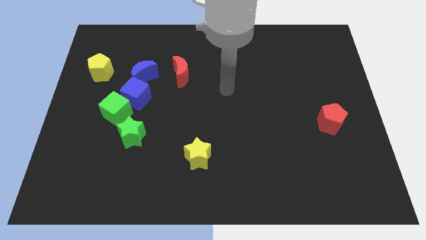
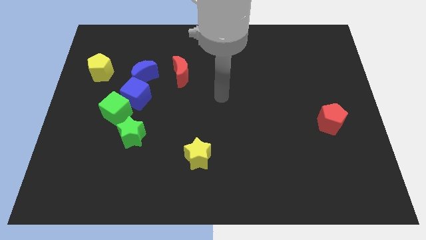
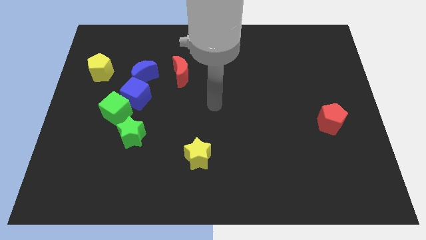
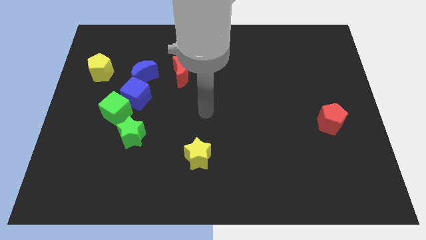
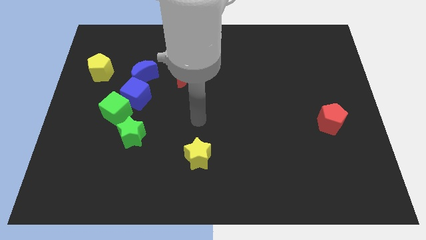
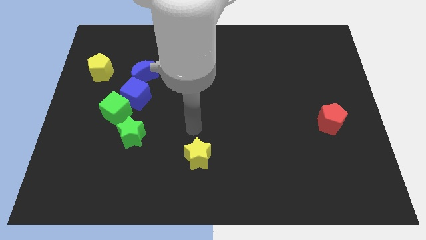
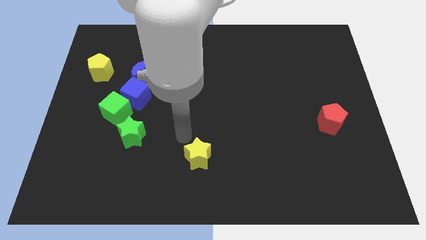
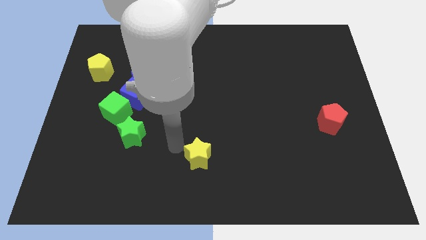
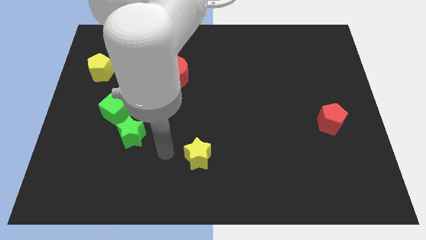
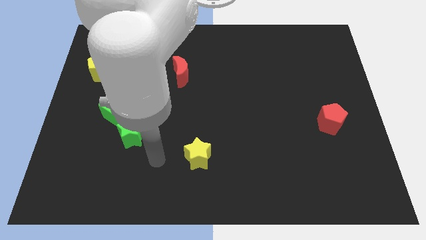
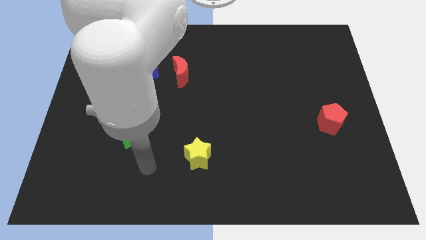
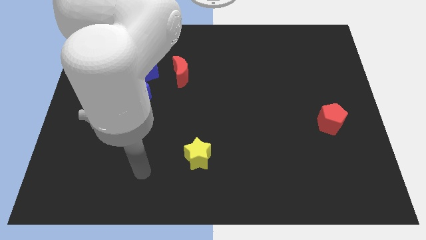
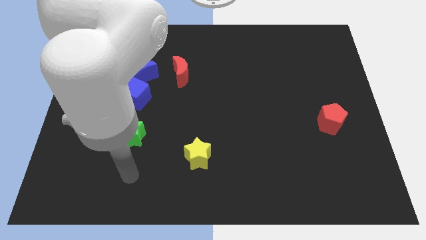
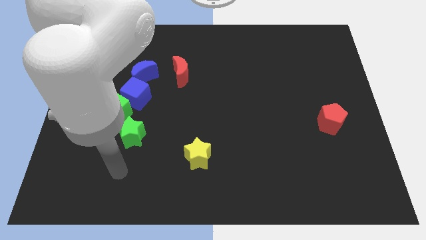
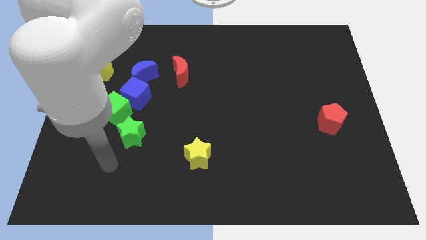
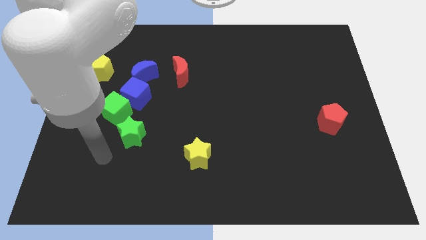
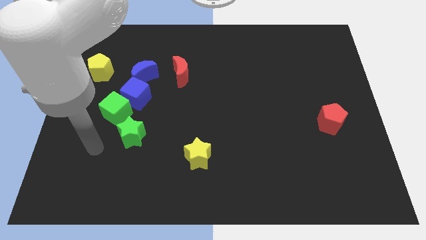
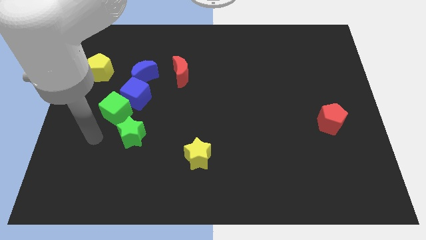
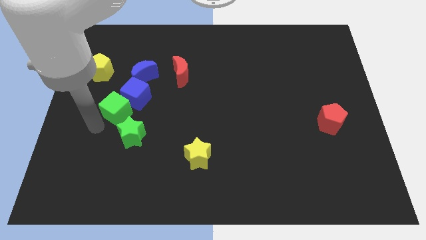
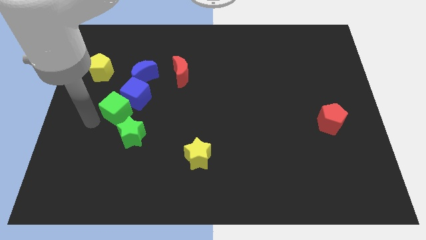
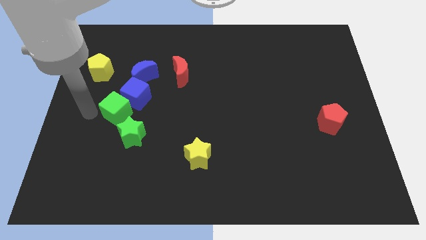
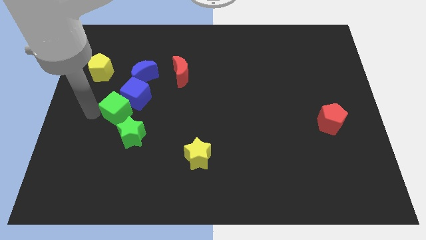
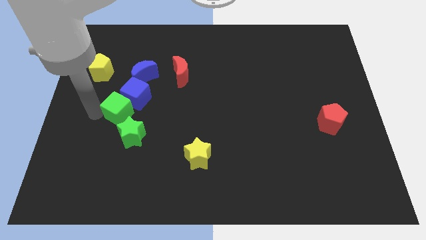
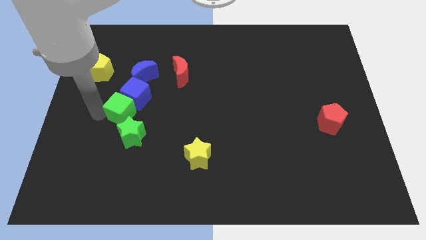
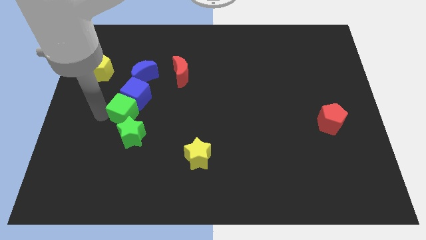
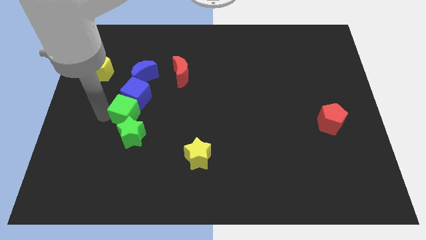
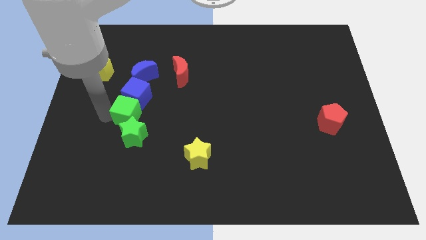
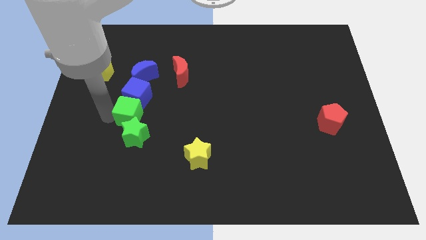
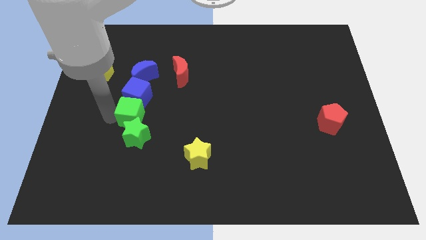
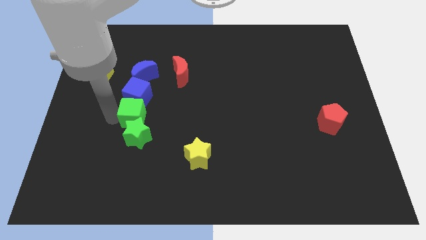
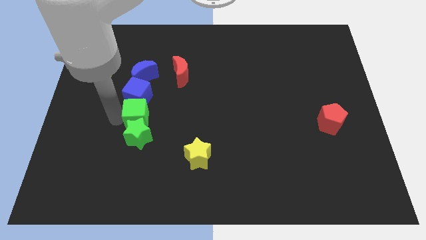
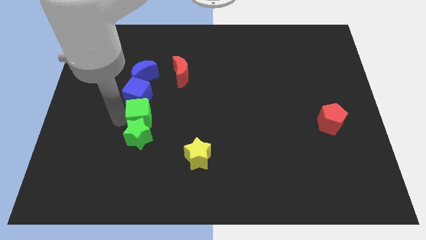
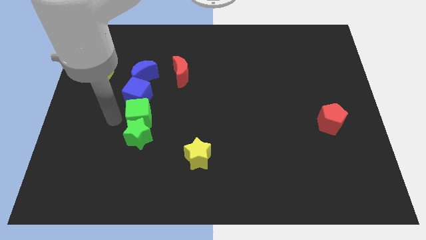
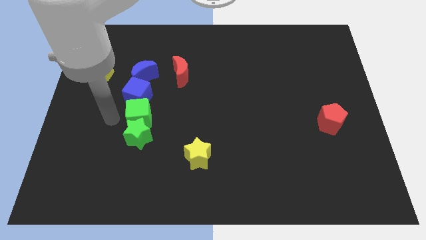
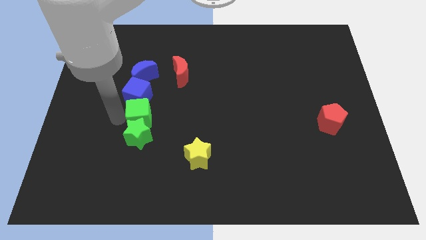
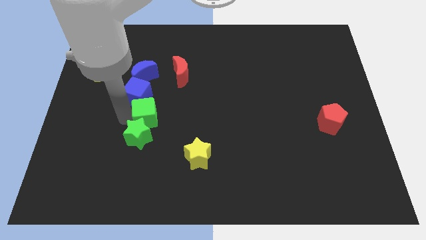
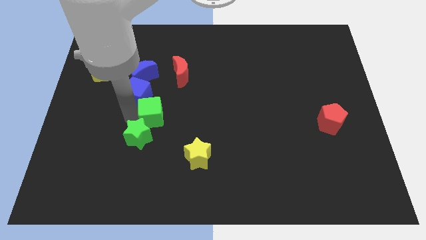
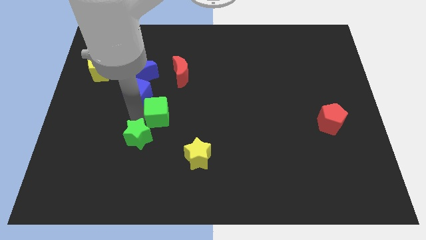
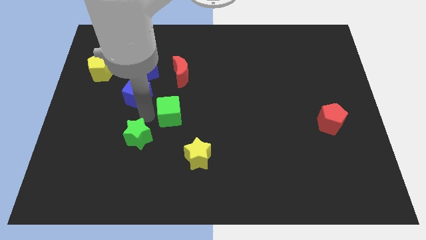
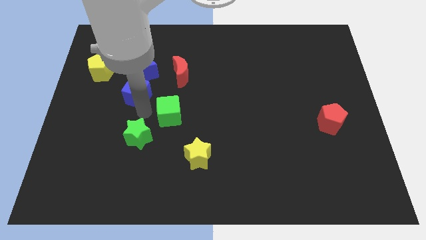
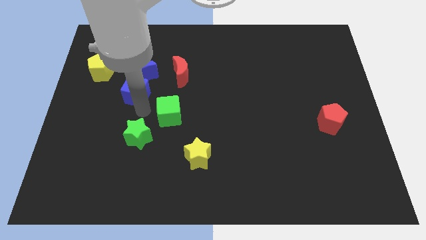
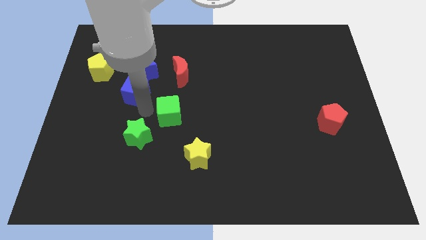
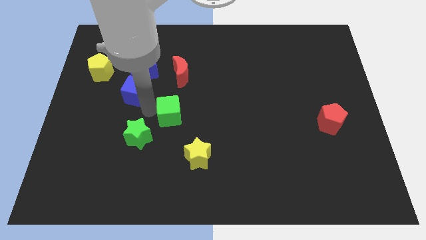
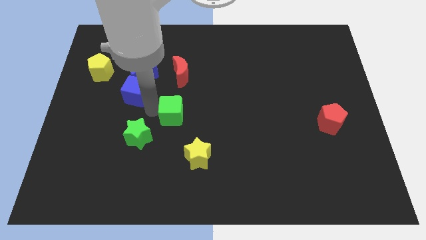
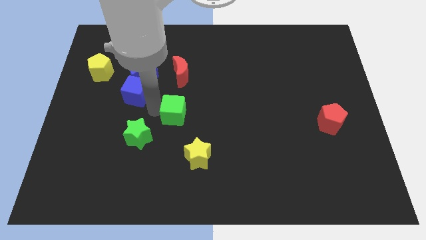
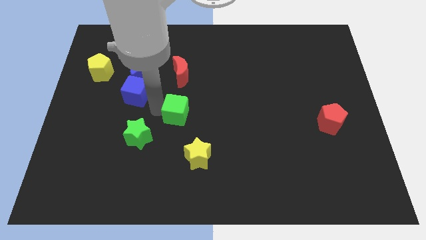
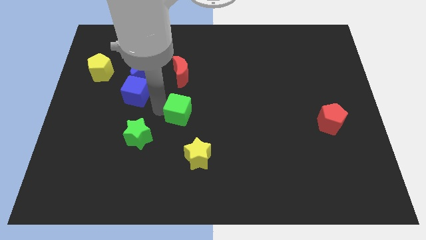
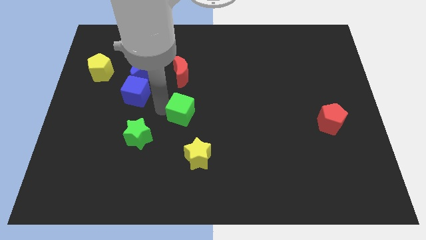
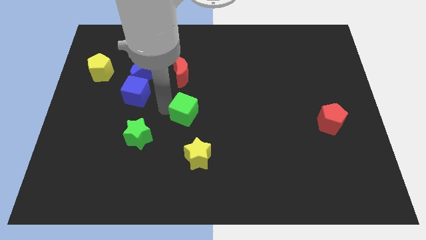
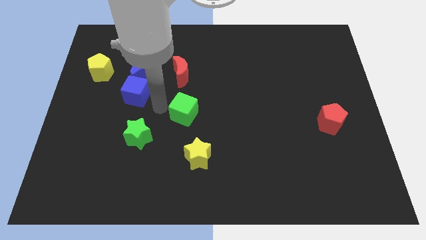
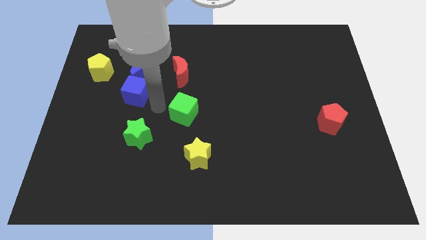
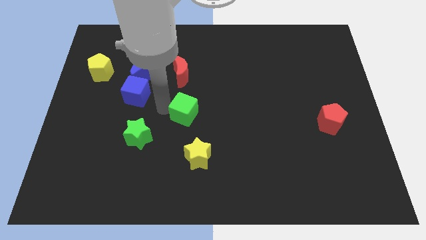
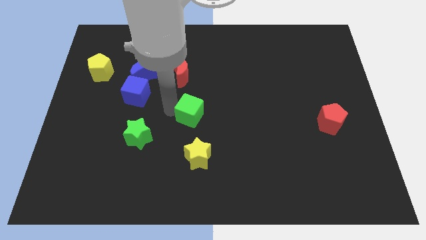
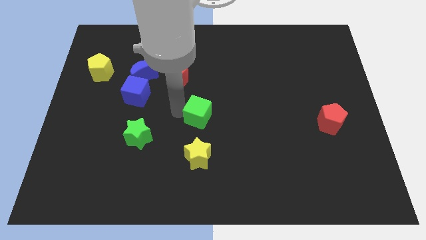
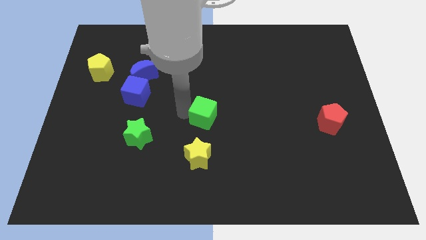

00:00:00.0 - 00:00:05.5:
push the green cube right

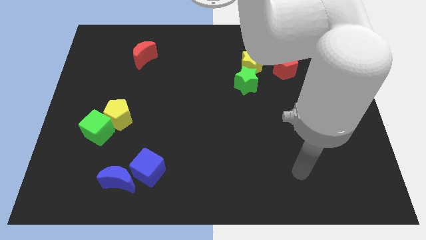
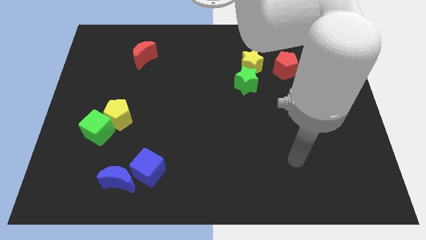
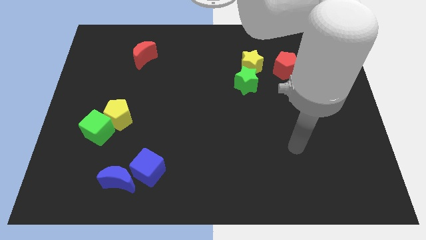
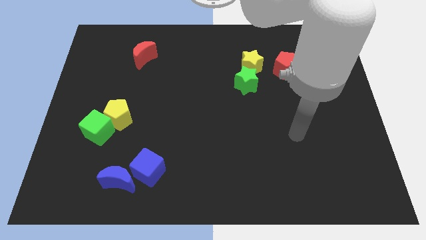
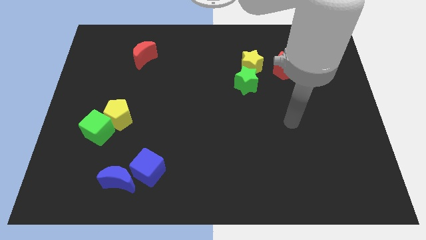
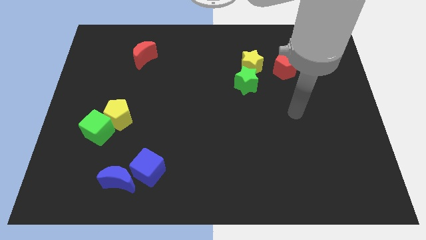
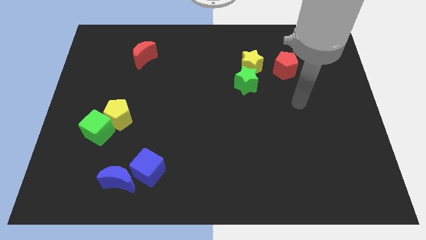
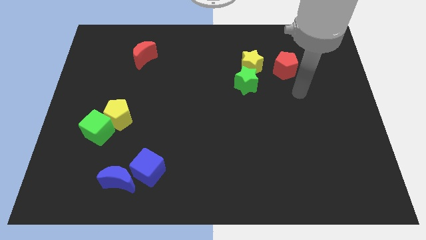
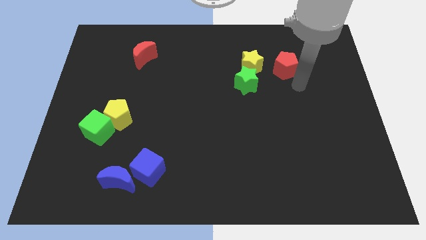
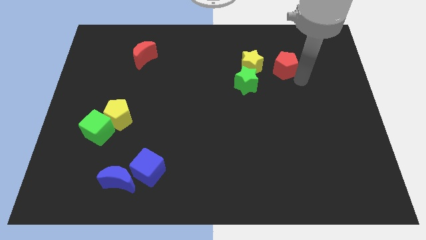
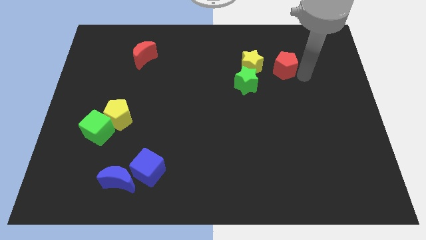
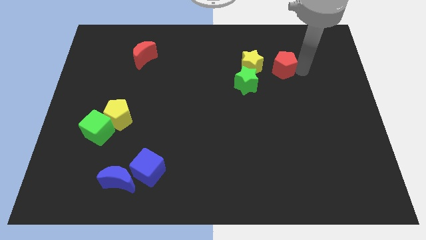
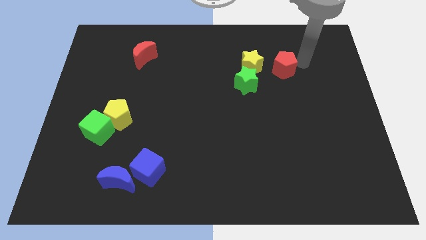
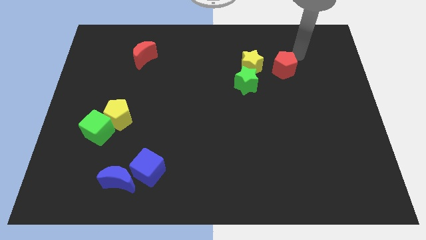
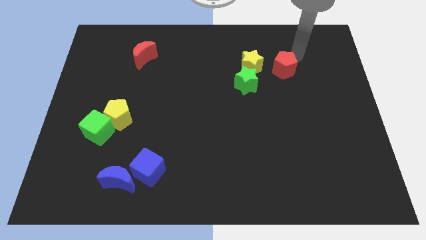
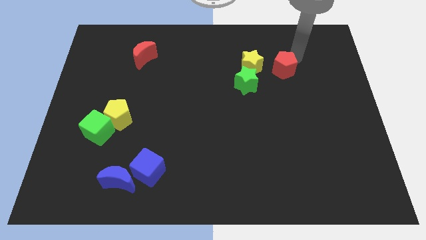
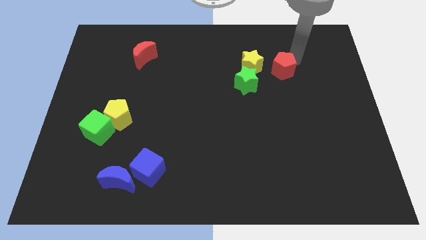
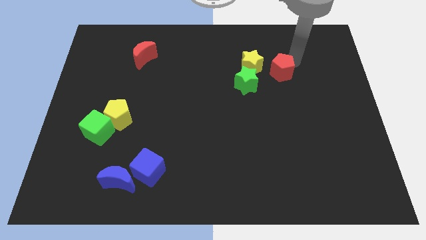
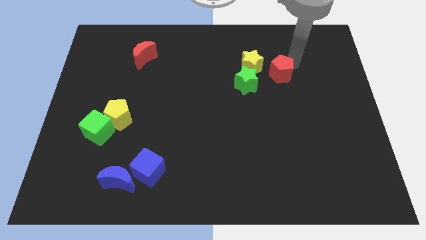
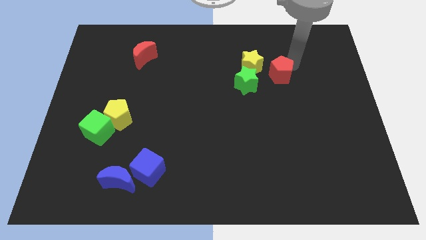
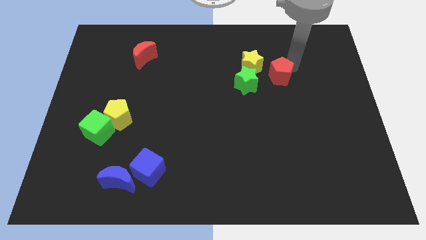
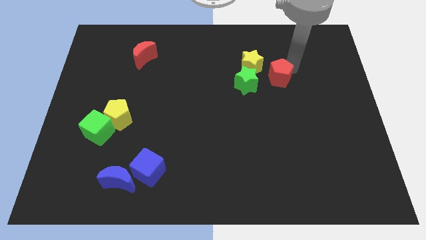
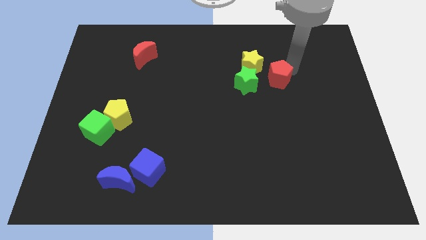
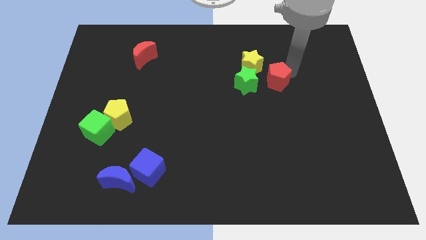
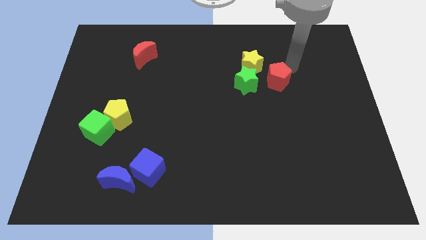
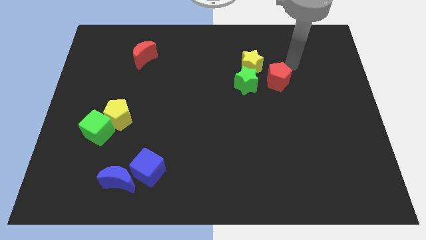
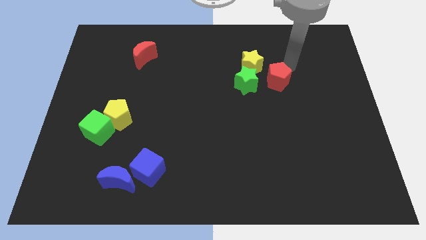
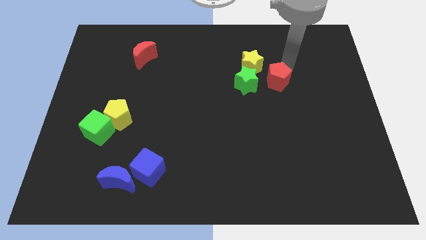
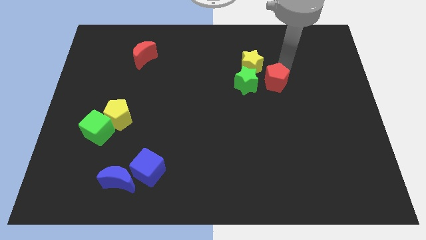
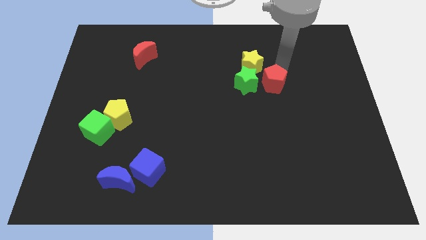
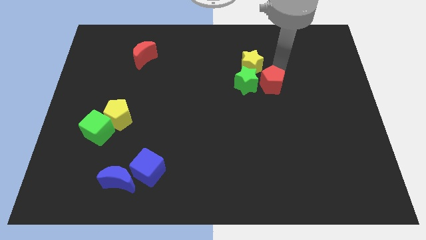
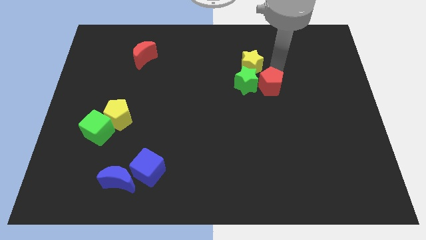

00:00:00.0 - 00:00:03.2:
slide the red pentagon down and to the left somewhat
